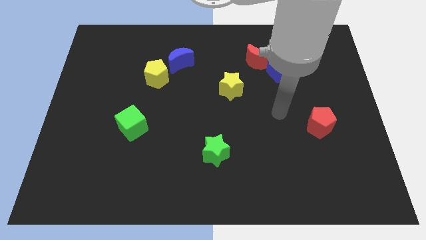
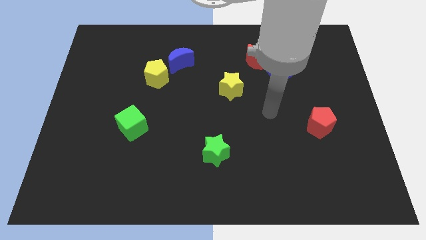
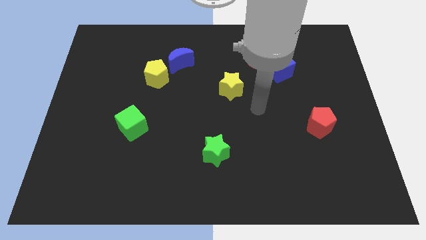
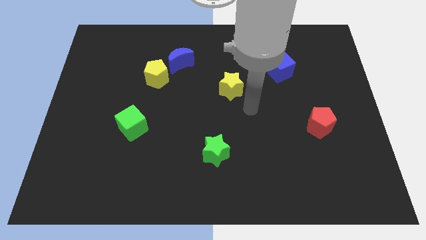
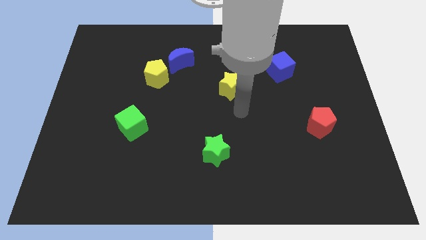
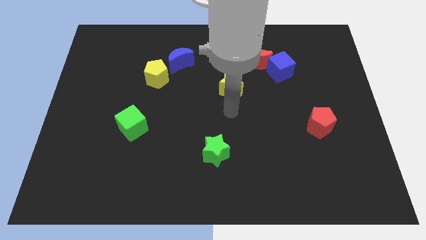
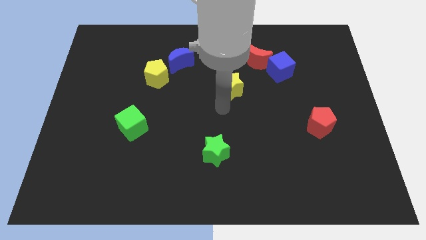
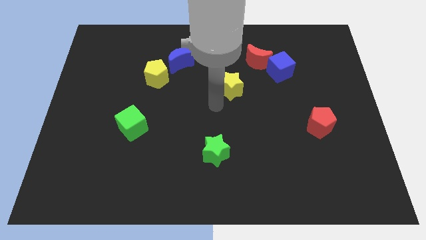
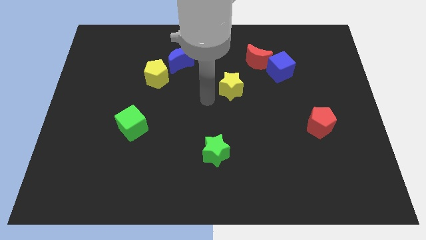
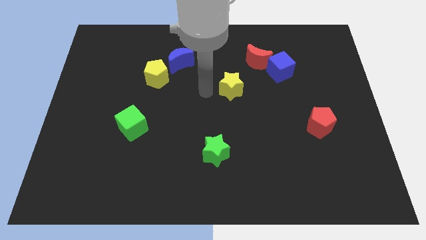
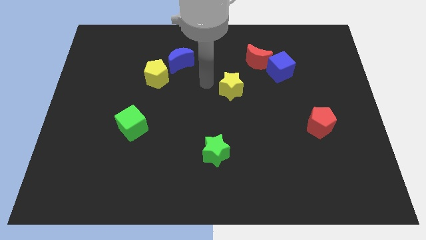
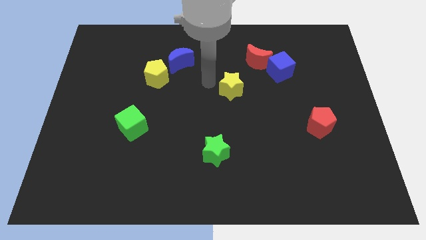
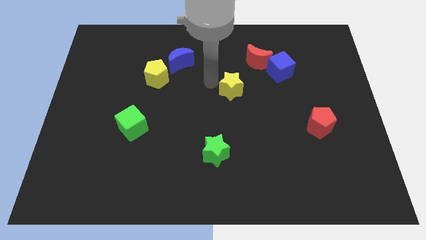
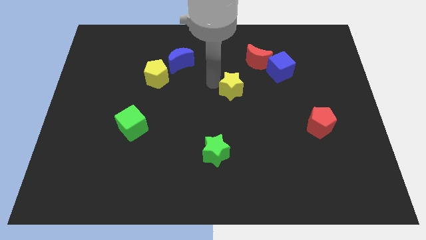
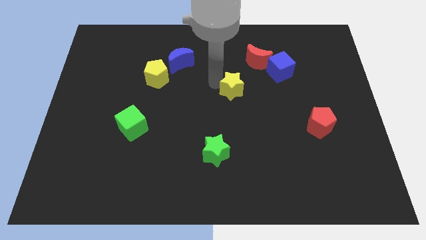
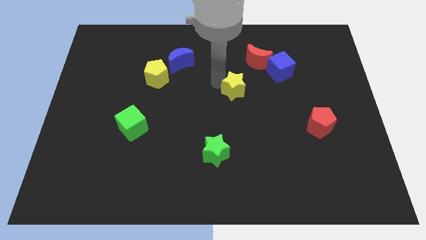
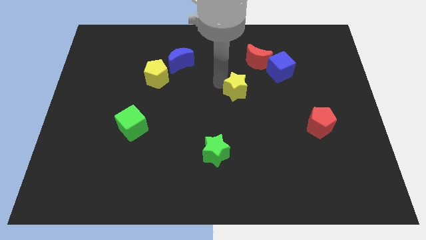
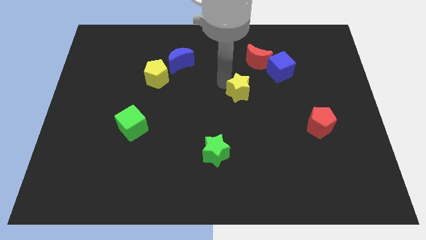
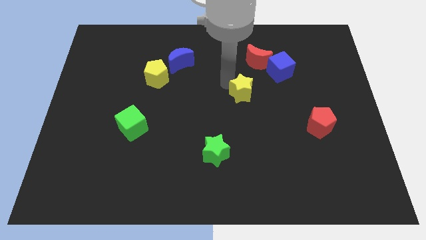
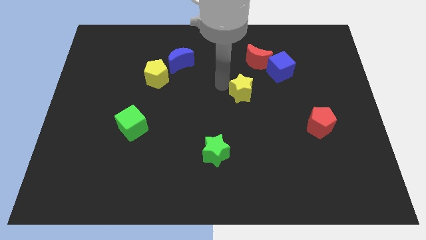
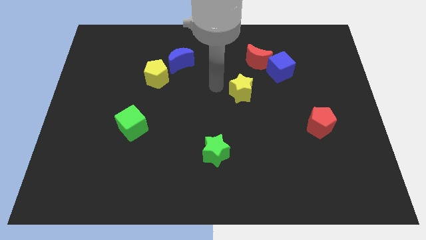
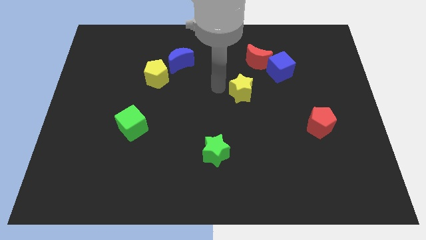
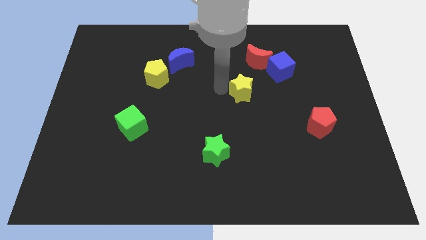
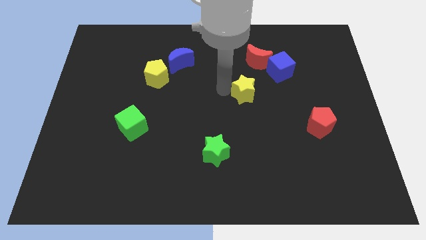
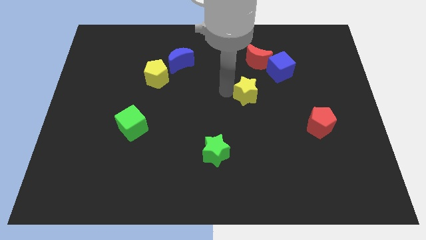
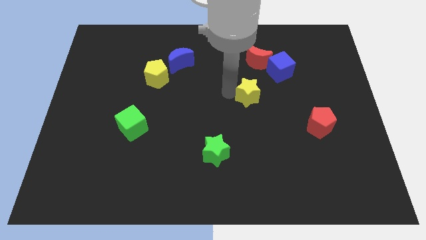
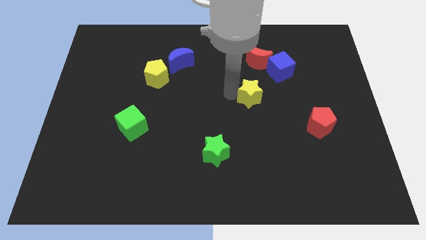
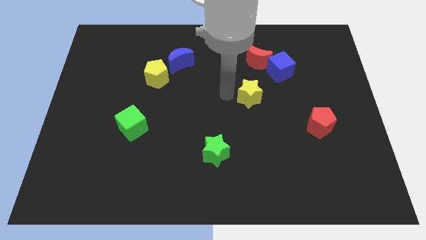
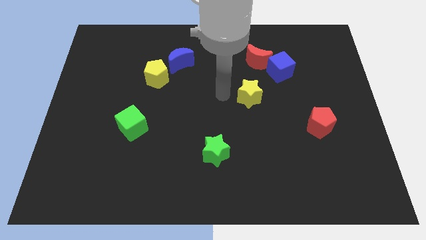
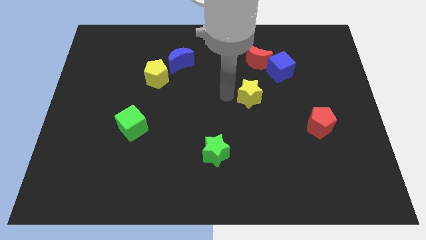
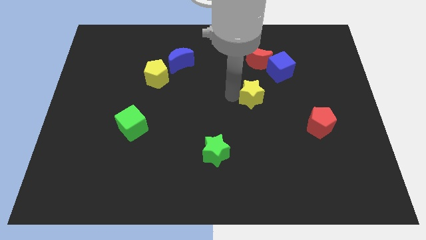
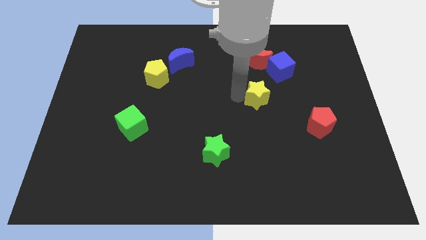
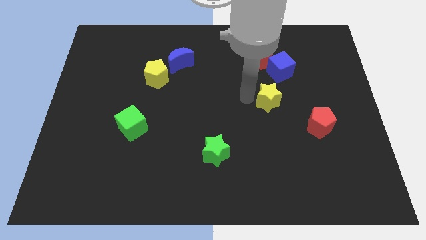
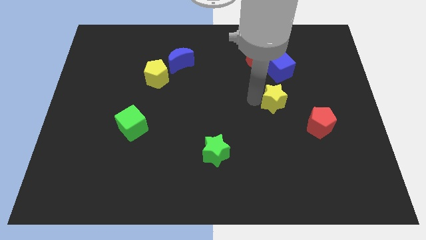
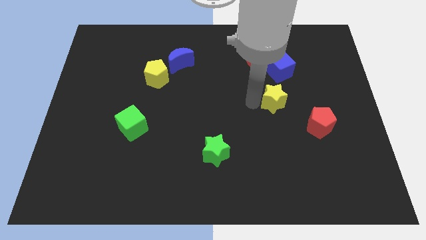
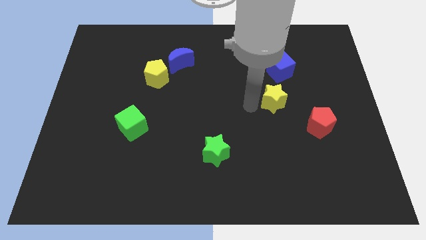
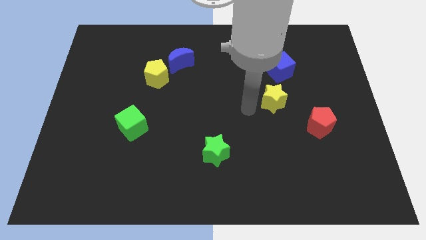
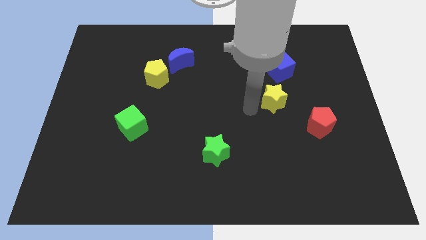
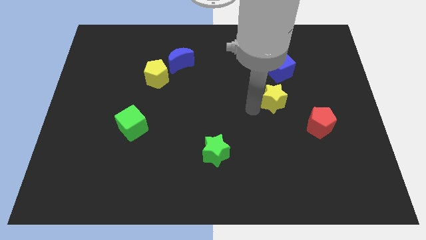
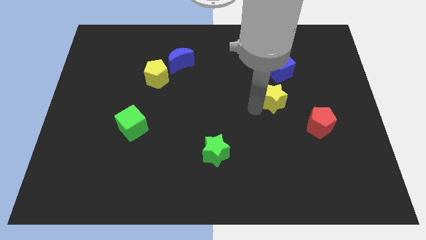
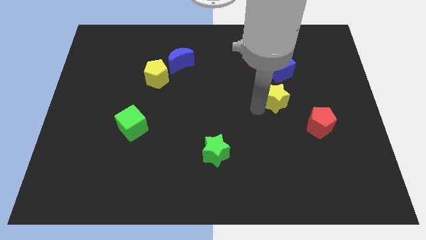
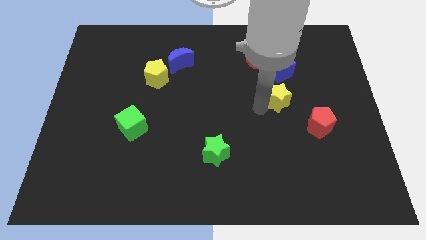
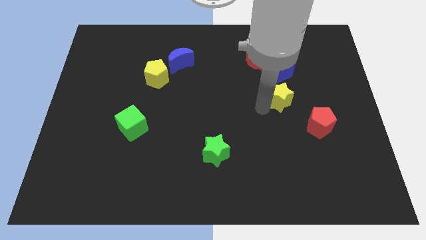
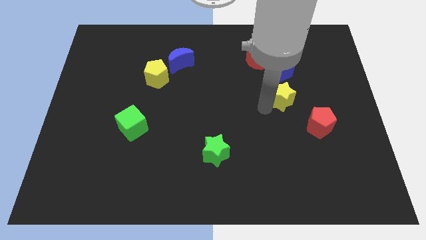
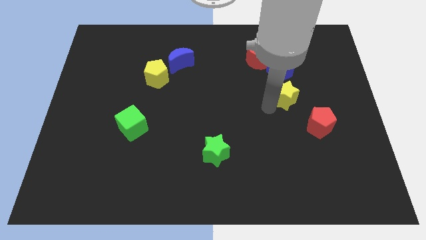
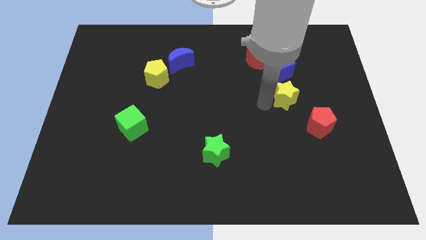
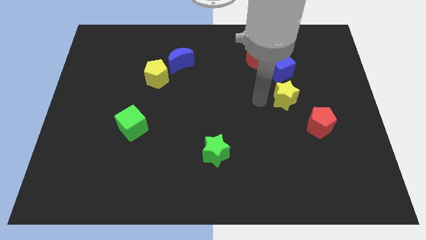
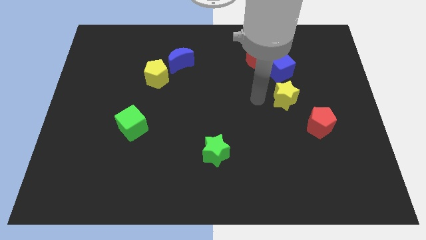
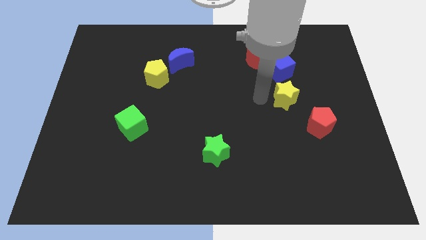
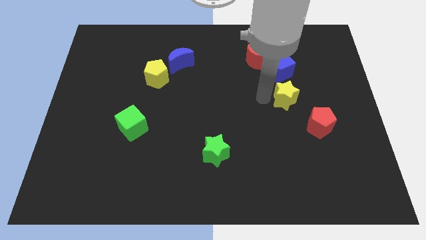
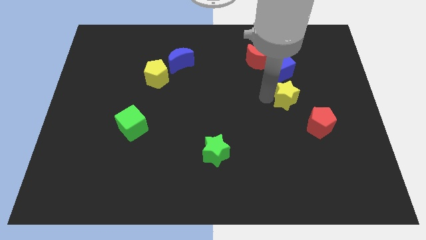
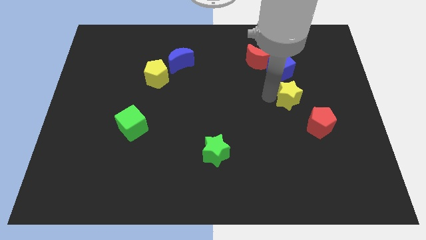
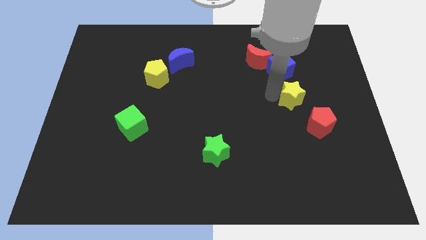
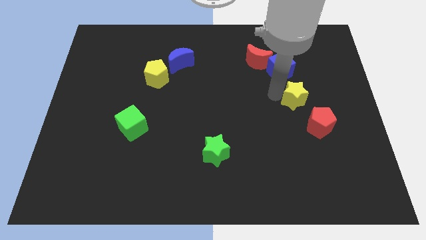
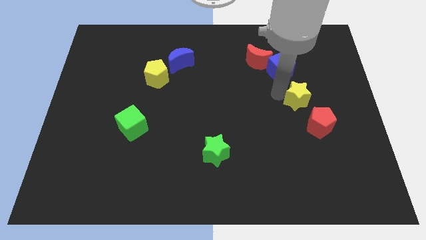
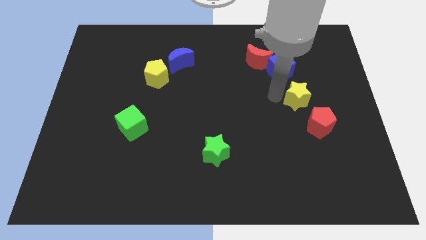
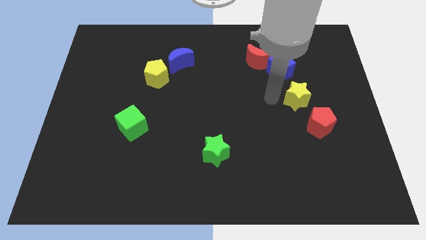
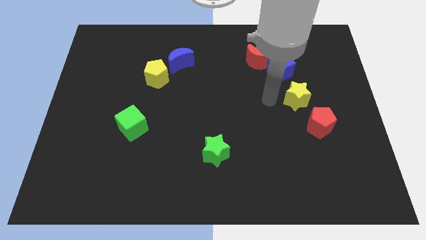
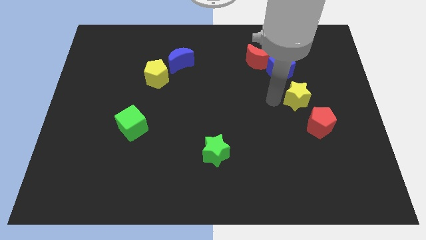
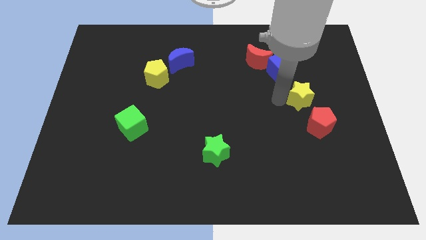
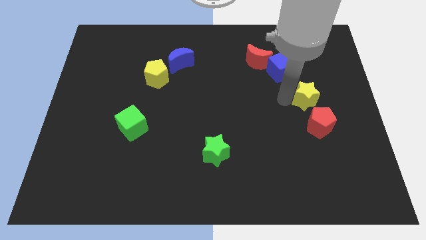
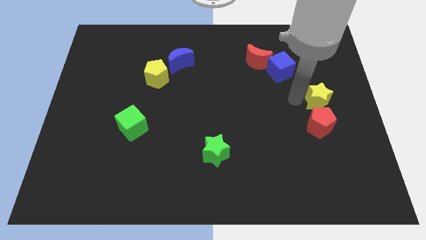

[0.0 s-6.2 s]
put the yellow star to the right side of the board

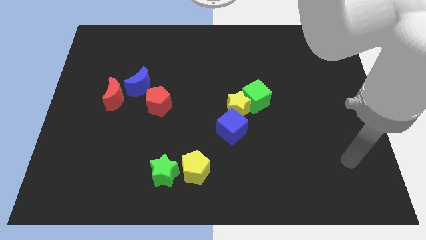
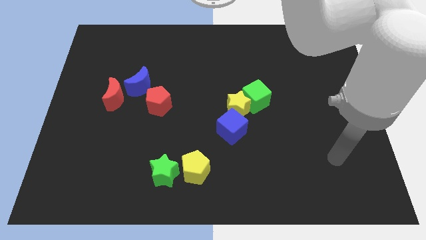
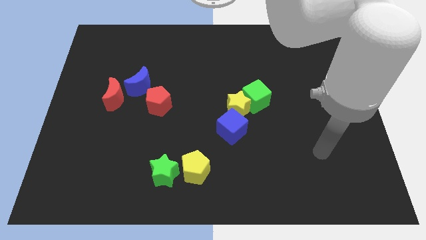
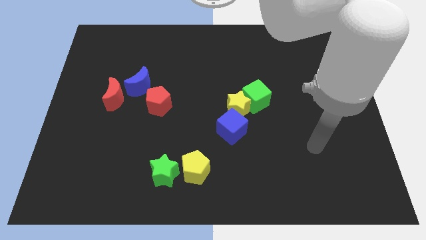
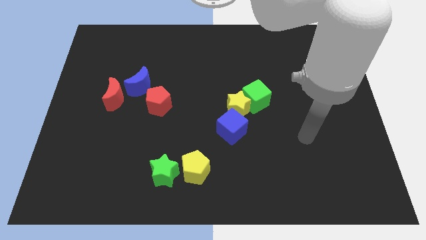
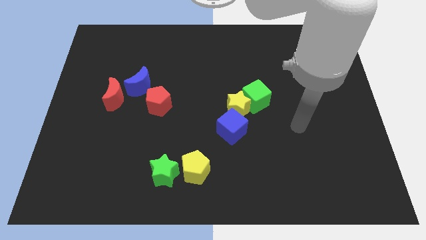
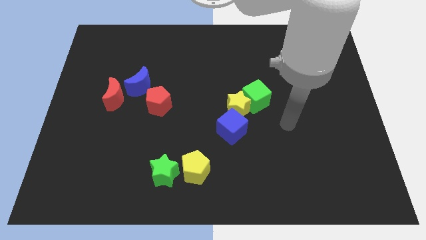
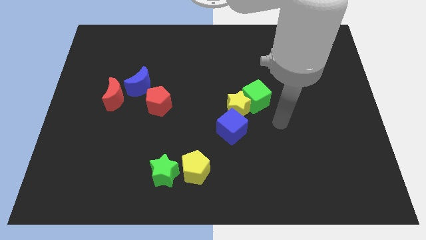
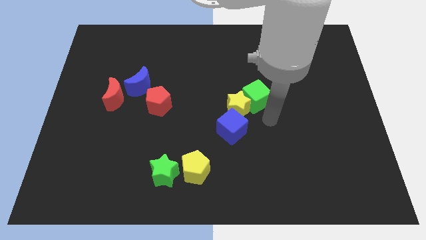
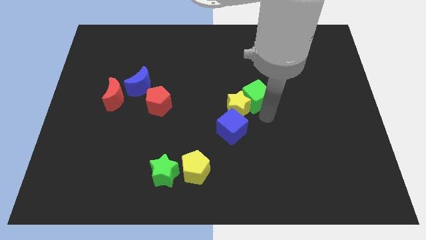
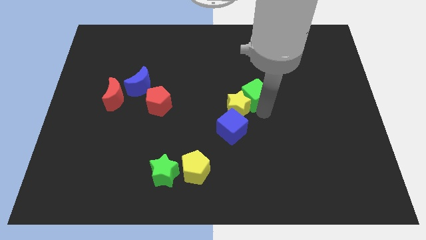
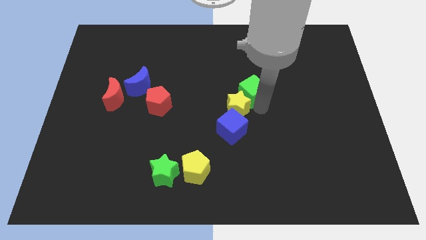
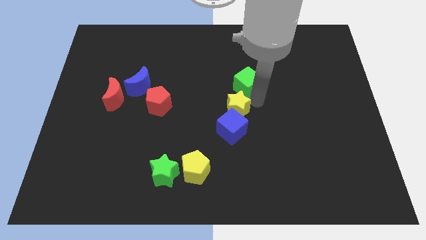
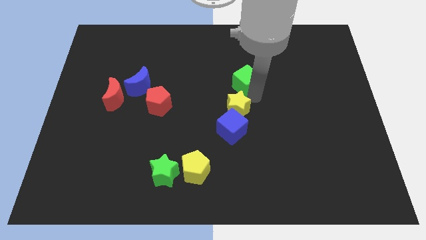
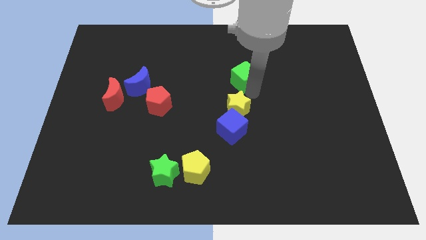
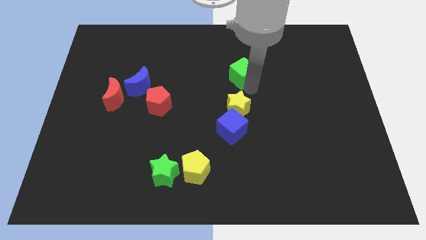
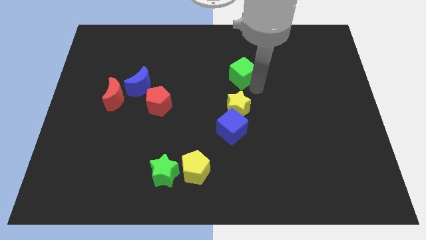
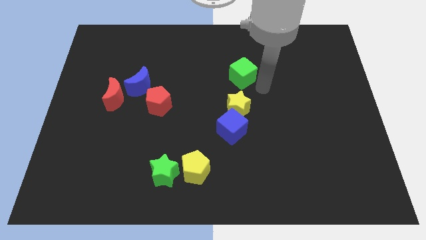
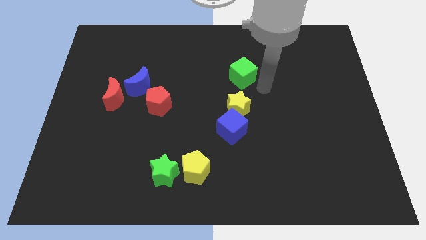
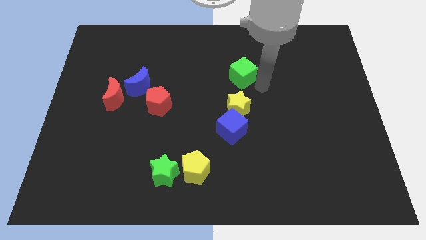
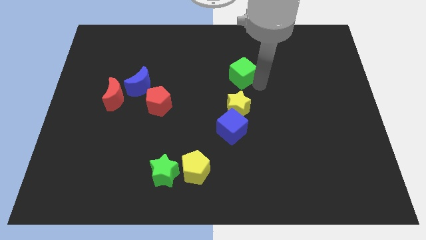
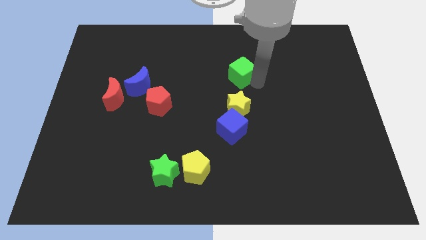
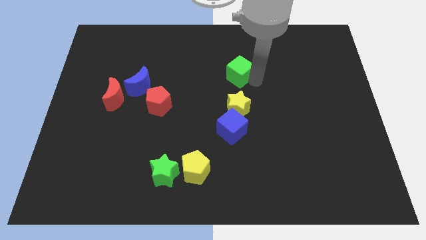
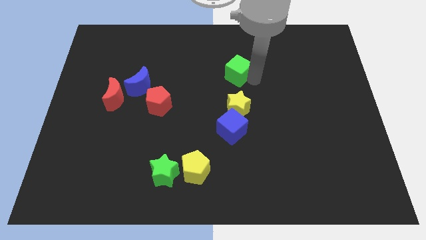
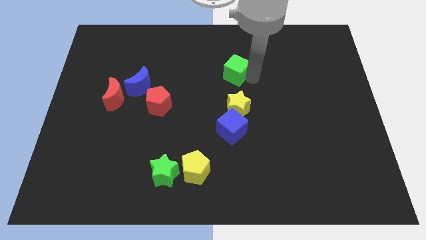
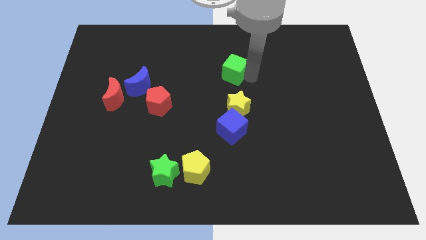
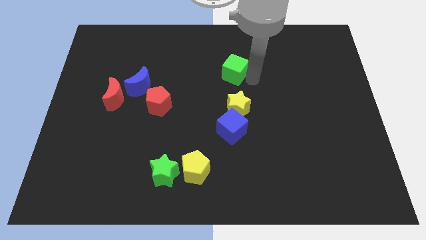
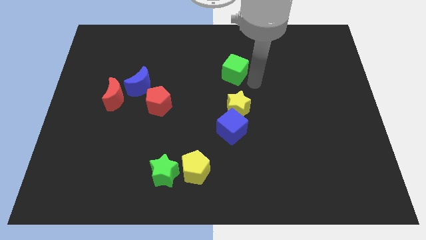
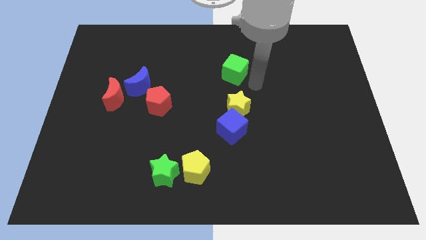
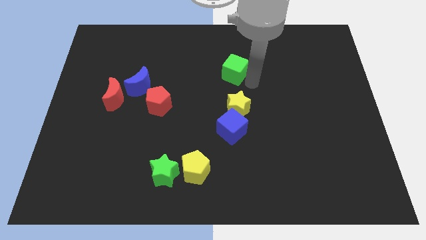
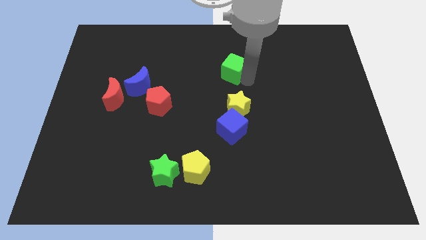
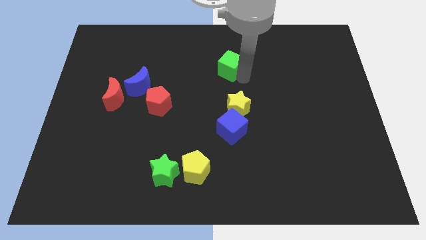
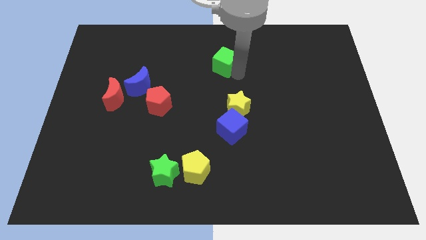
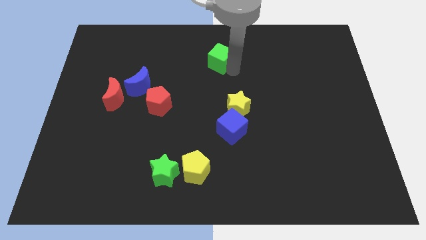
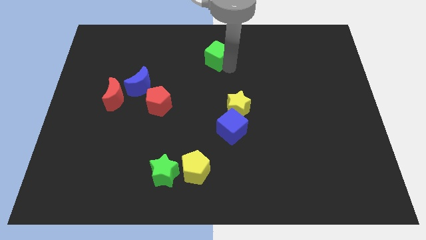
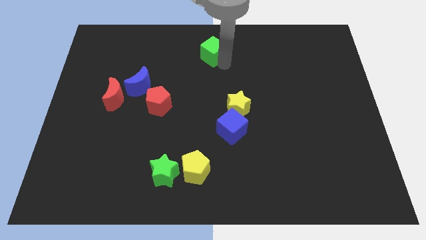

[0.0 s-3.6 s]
slide the green cube to the top
